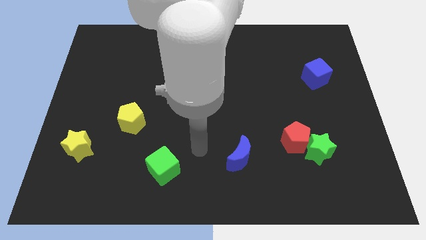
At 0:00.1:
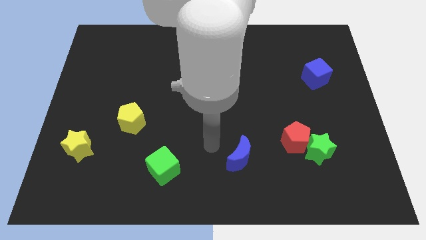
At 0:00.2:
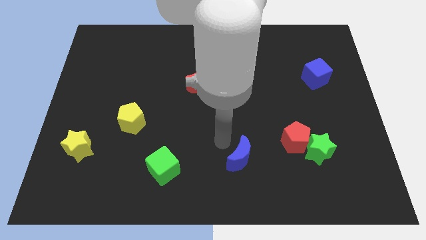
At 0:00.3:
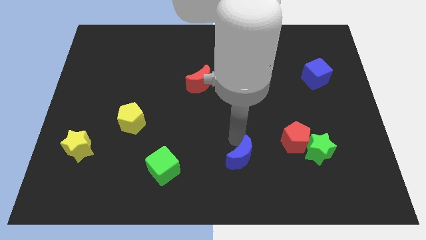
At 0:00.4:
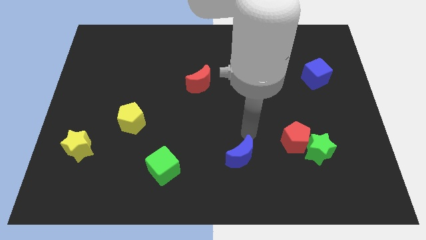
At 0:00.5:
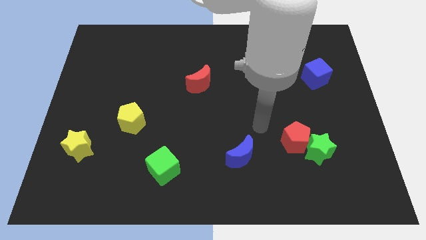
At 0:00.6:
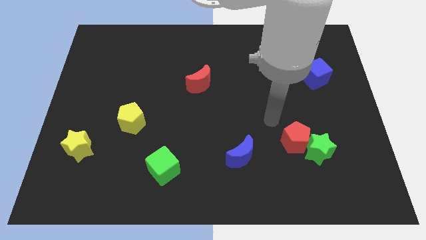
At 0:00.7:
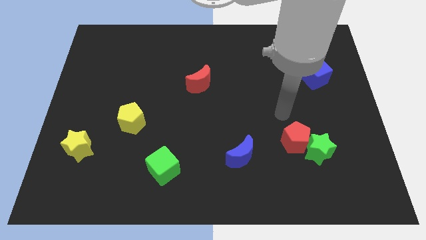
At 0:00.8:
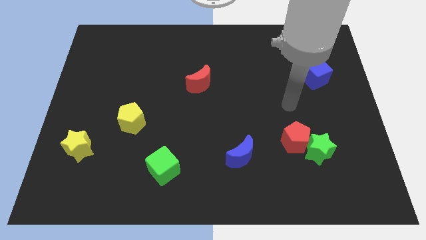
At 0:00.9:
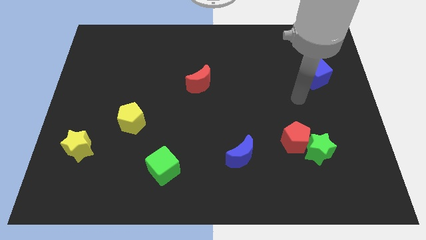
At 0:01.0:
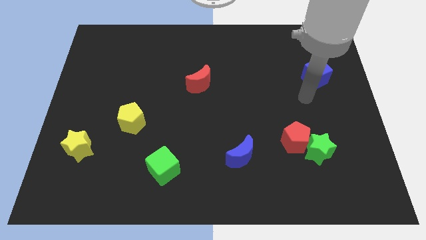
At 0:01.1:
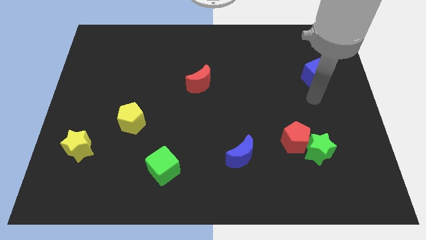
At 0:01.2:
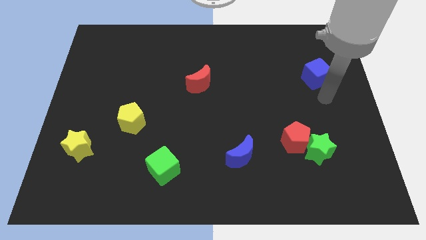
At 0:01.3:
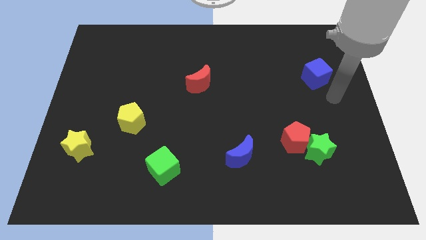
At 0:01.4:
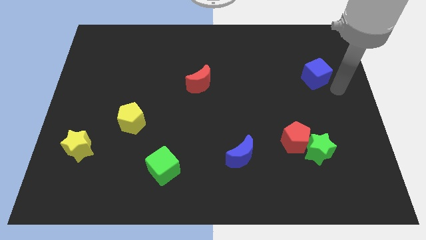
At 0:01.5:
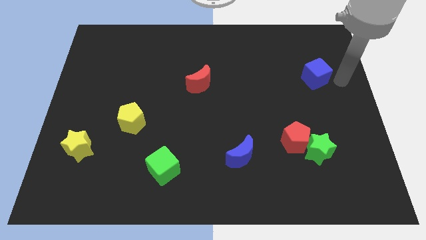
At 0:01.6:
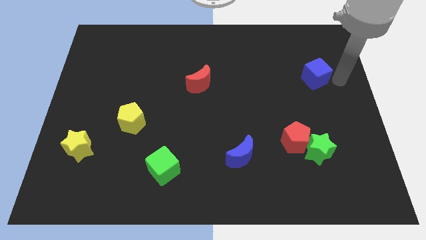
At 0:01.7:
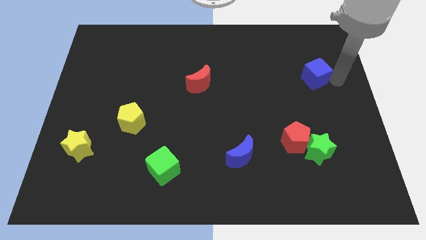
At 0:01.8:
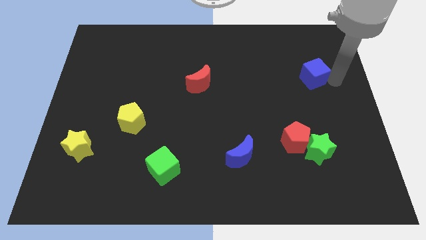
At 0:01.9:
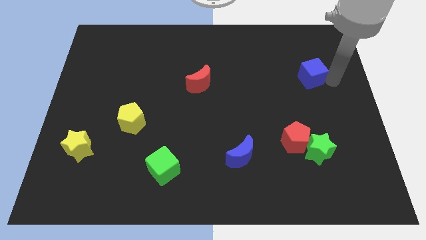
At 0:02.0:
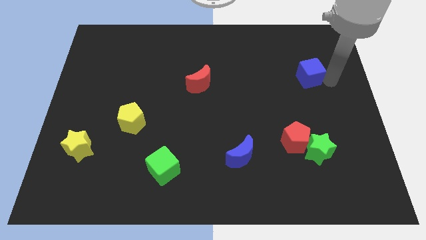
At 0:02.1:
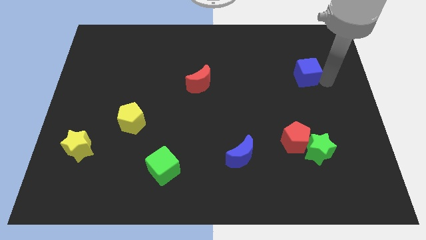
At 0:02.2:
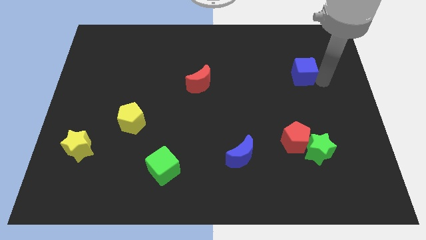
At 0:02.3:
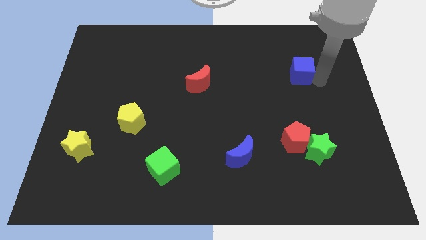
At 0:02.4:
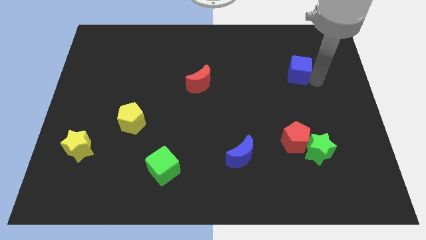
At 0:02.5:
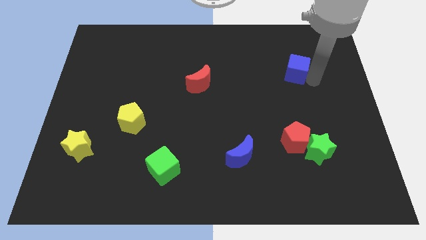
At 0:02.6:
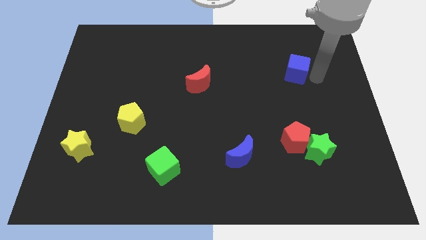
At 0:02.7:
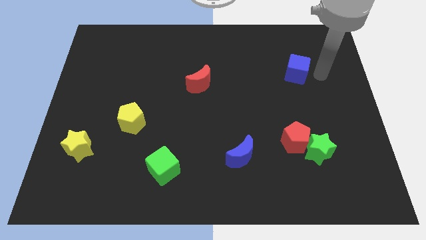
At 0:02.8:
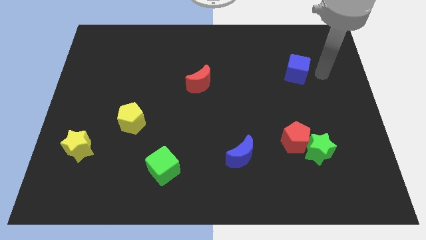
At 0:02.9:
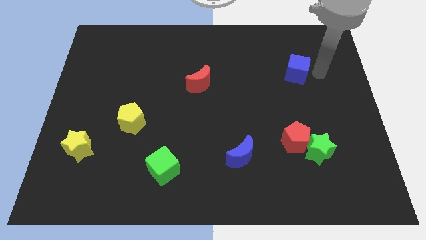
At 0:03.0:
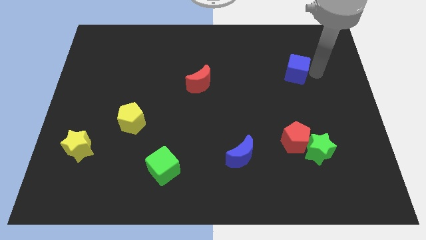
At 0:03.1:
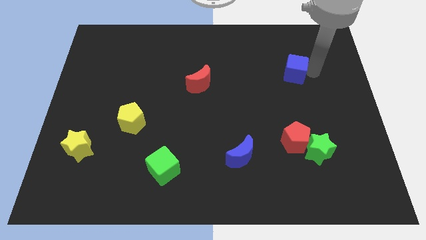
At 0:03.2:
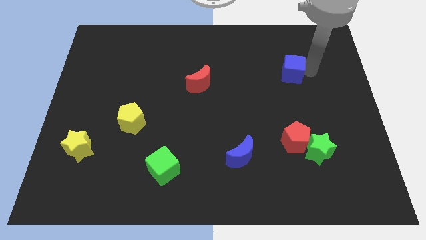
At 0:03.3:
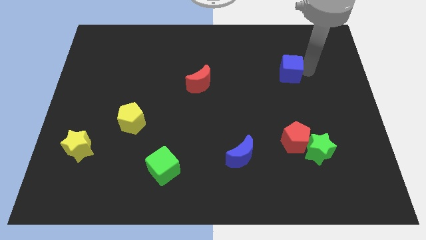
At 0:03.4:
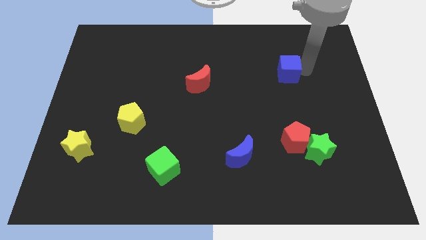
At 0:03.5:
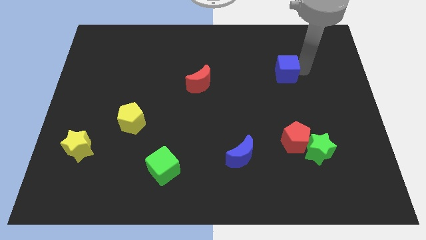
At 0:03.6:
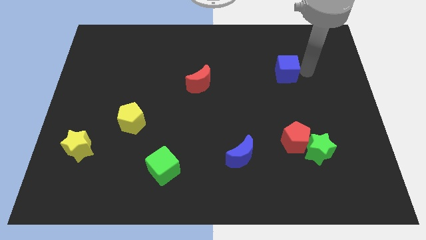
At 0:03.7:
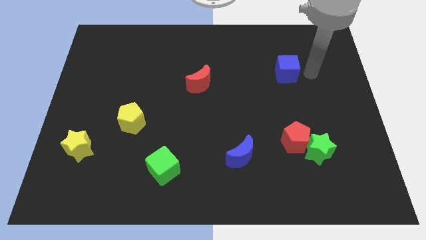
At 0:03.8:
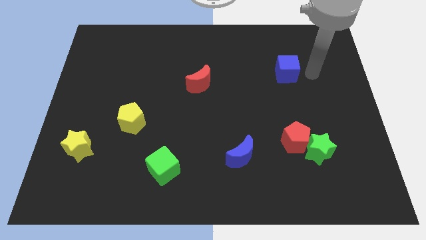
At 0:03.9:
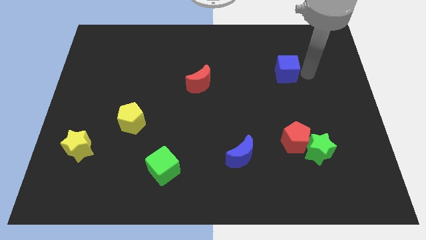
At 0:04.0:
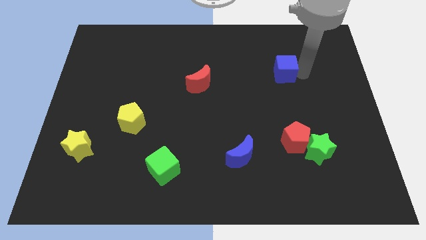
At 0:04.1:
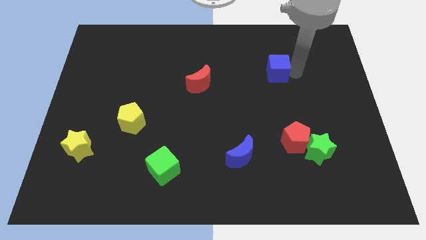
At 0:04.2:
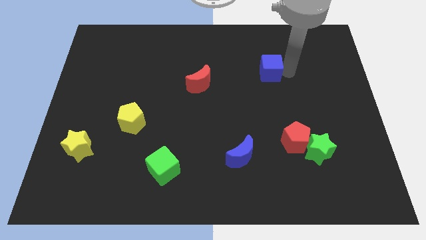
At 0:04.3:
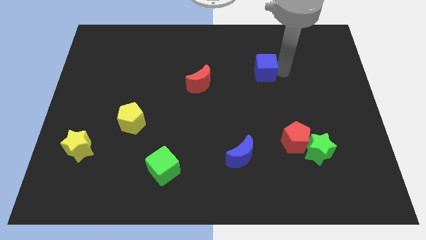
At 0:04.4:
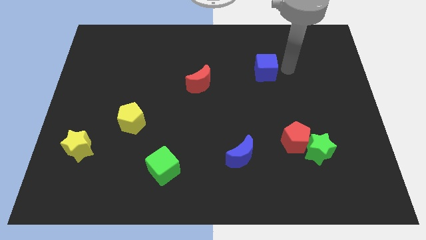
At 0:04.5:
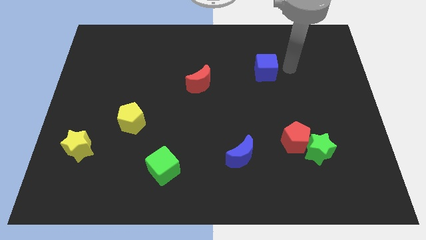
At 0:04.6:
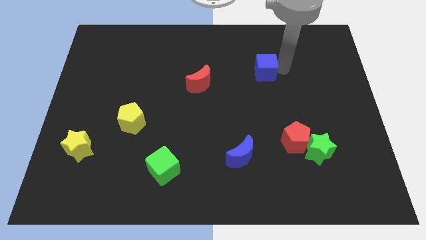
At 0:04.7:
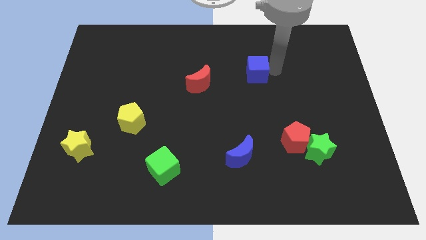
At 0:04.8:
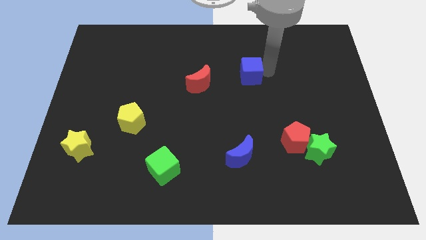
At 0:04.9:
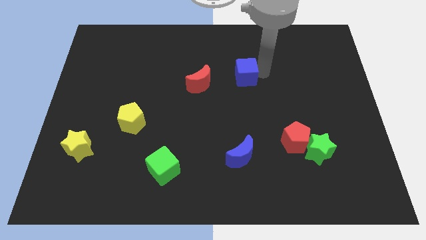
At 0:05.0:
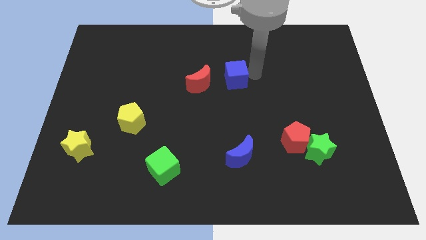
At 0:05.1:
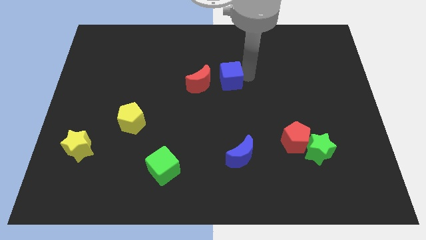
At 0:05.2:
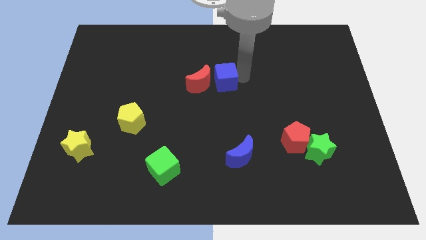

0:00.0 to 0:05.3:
move the blue cube close to the red moon

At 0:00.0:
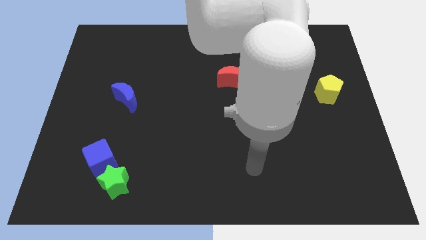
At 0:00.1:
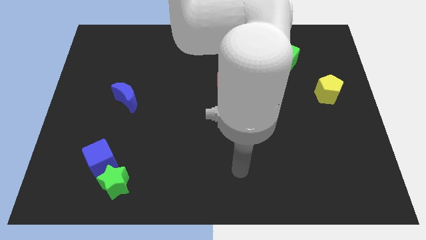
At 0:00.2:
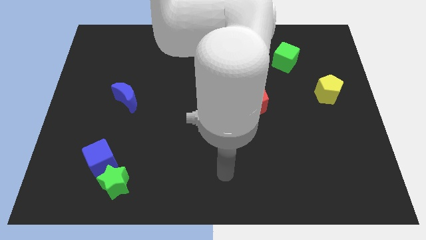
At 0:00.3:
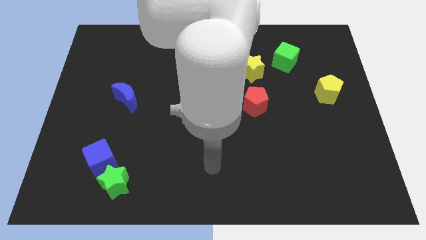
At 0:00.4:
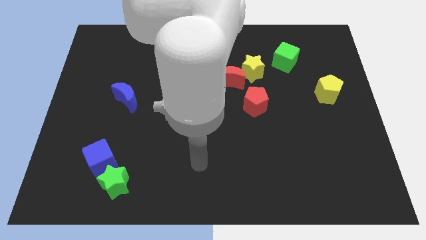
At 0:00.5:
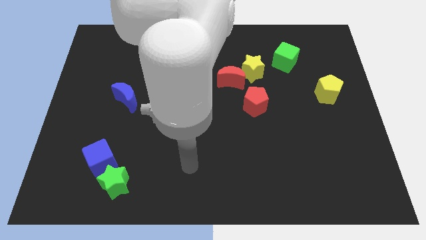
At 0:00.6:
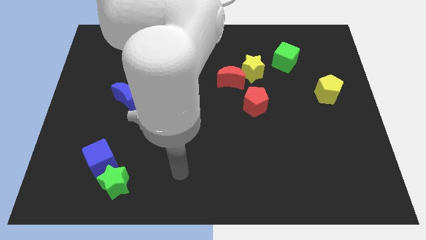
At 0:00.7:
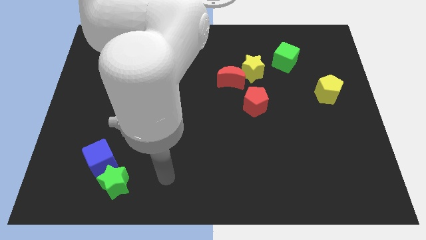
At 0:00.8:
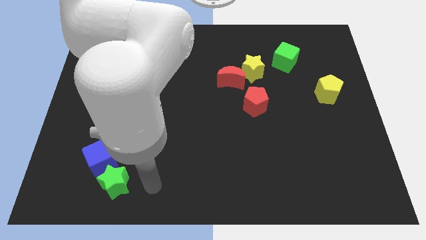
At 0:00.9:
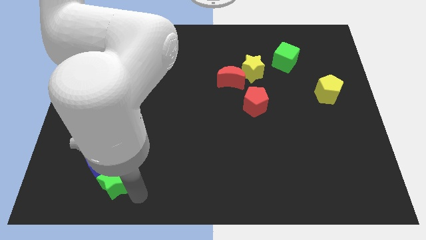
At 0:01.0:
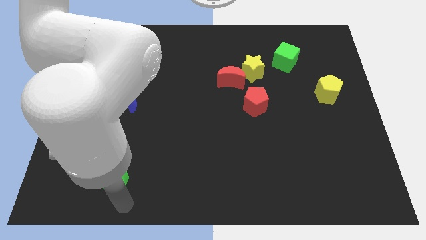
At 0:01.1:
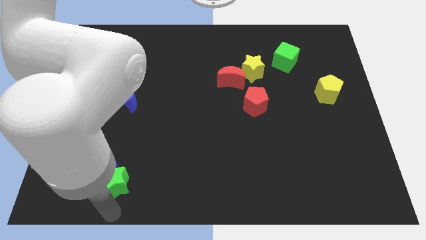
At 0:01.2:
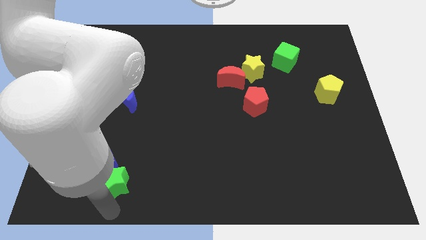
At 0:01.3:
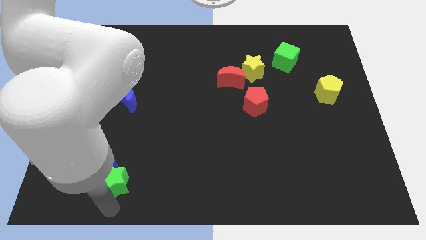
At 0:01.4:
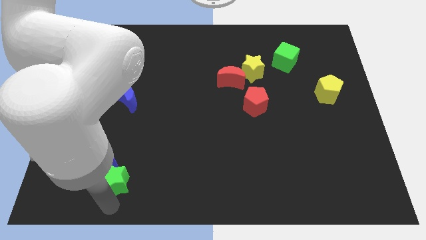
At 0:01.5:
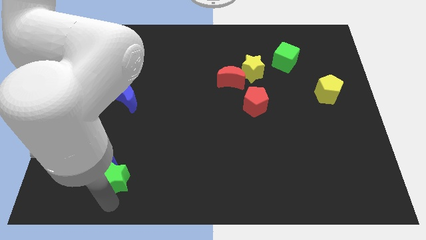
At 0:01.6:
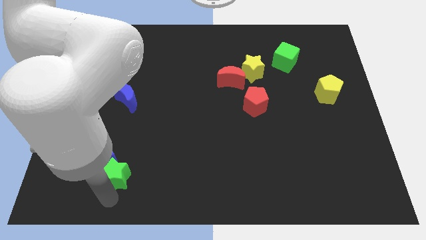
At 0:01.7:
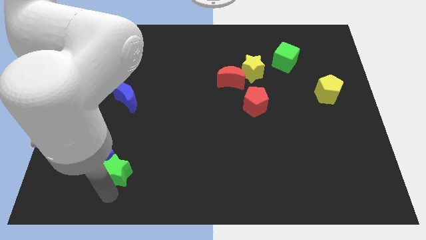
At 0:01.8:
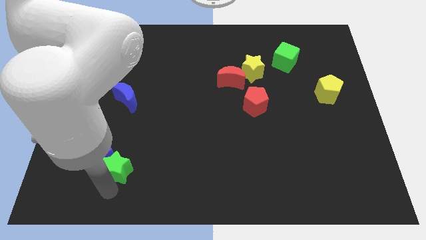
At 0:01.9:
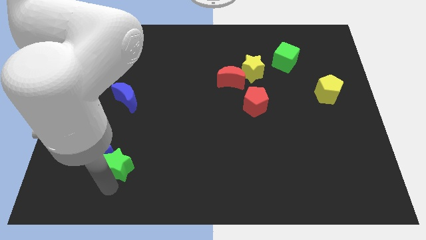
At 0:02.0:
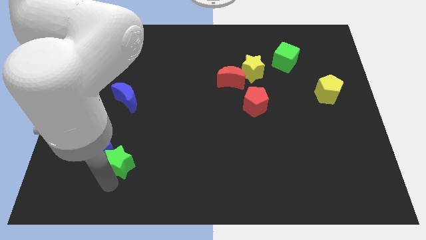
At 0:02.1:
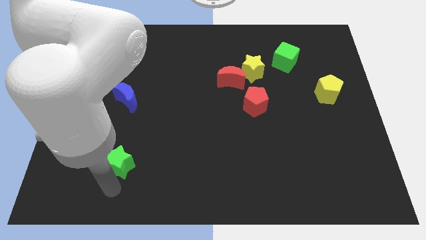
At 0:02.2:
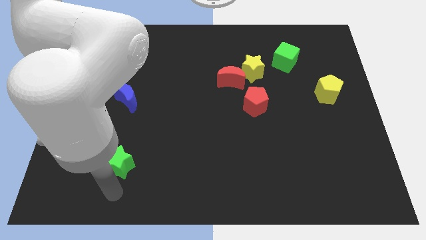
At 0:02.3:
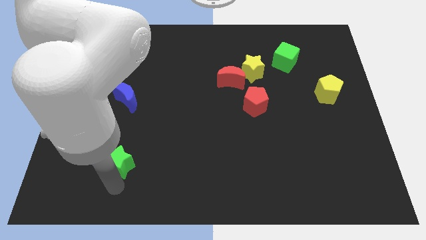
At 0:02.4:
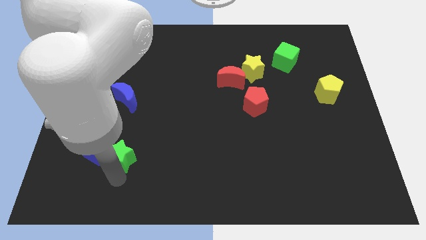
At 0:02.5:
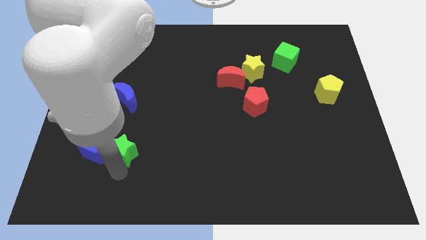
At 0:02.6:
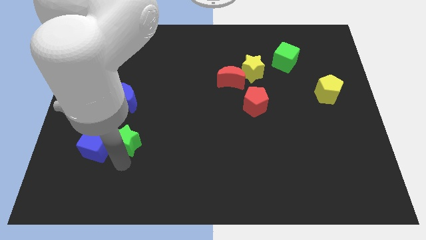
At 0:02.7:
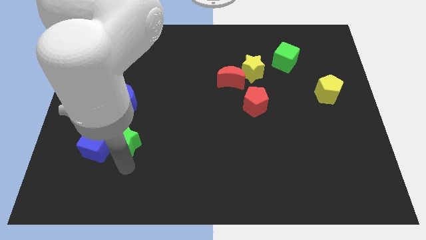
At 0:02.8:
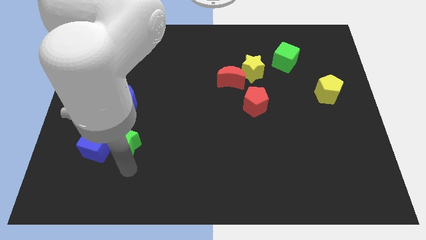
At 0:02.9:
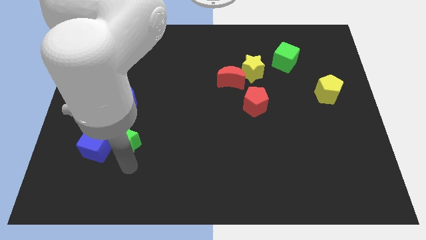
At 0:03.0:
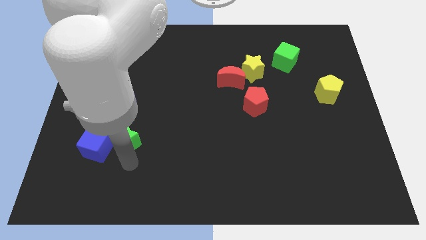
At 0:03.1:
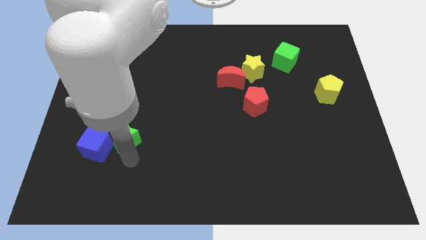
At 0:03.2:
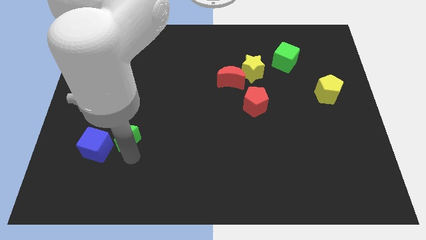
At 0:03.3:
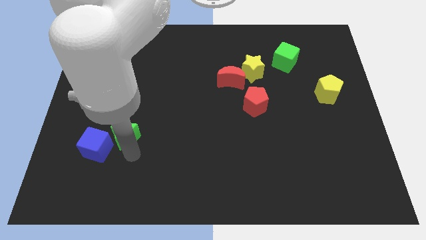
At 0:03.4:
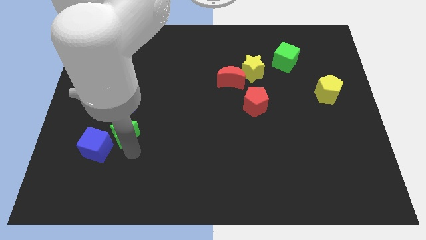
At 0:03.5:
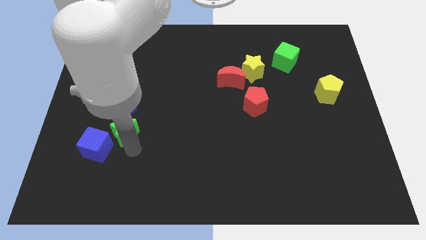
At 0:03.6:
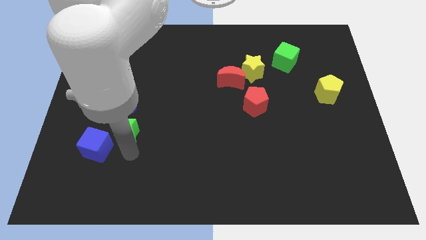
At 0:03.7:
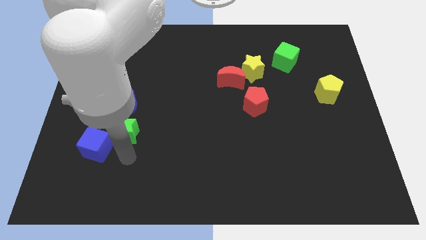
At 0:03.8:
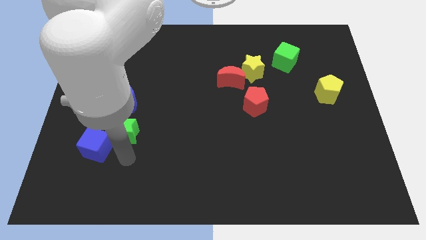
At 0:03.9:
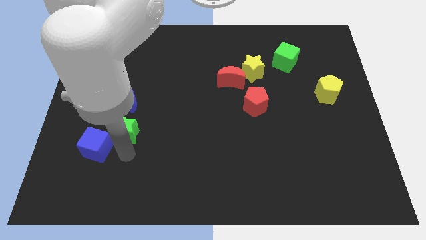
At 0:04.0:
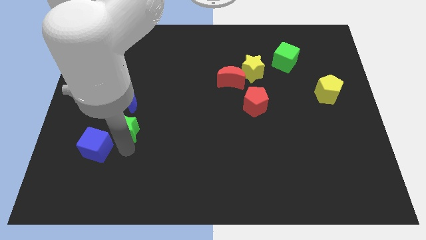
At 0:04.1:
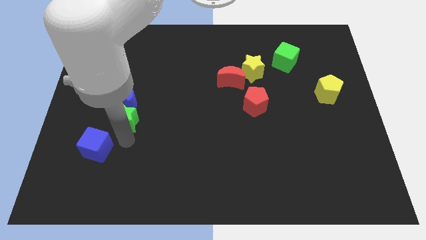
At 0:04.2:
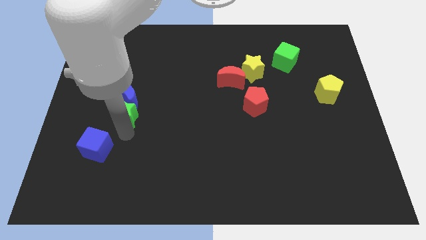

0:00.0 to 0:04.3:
put the green star to the blue moon
